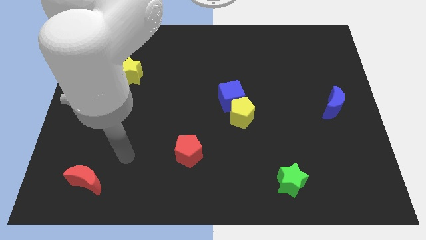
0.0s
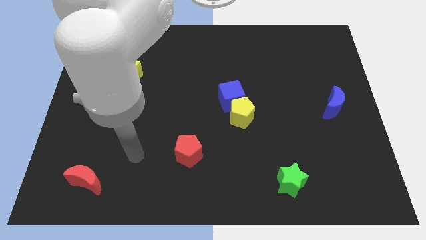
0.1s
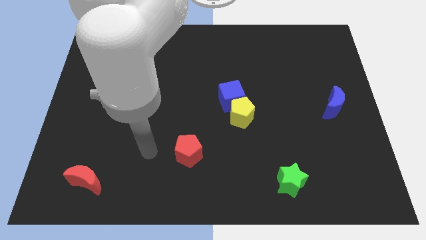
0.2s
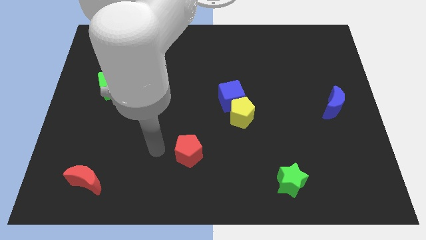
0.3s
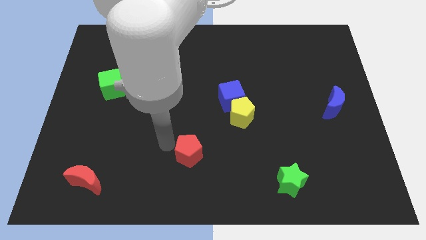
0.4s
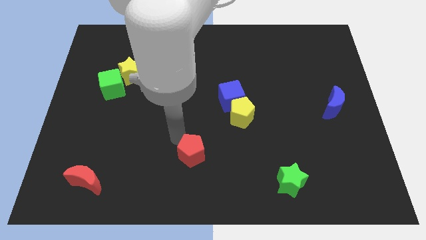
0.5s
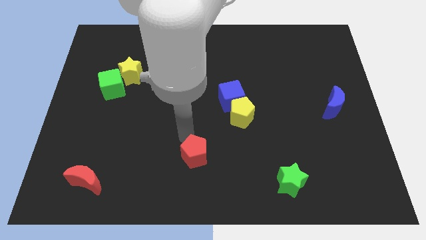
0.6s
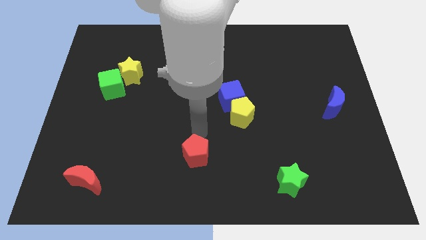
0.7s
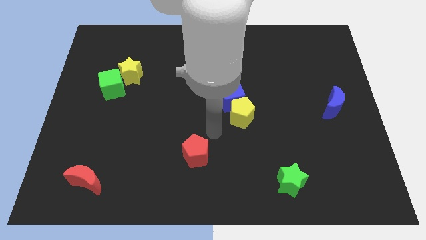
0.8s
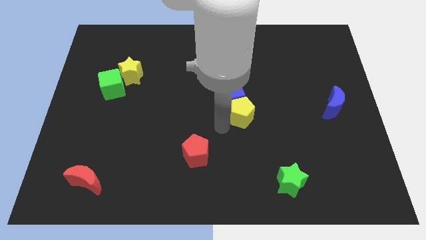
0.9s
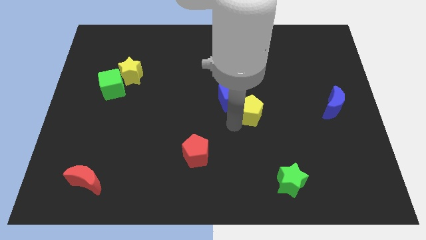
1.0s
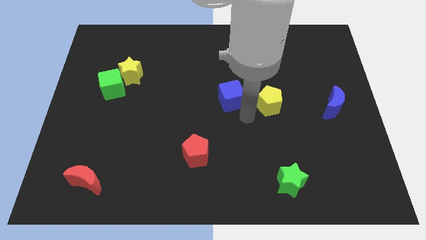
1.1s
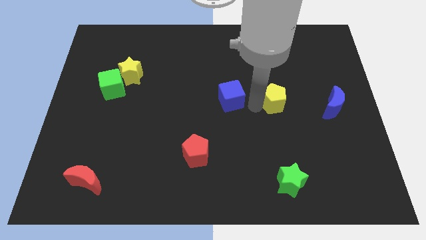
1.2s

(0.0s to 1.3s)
separate the blue cube from the yellow pentagon

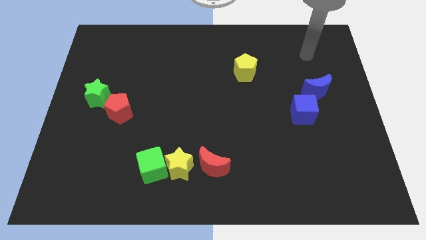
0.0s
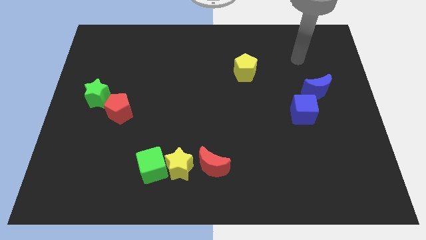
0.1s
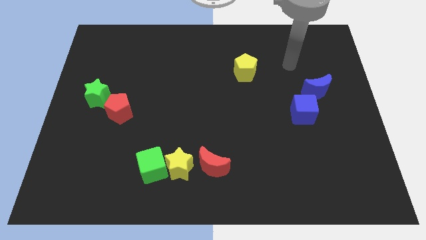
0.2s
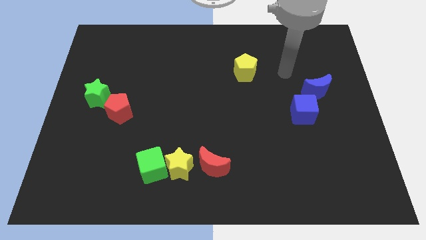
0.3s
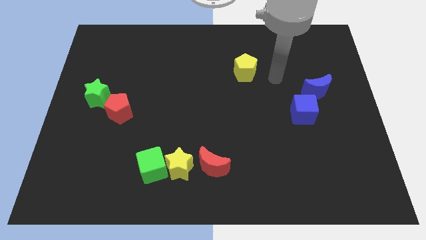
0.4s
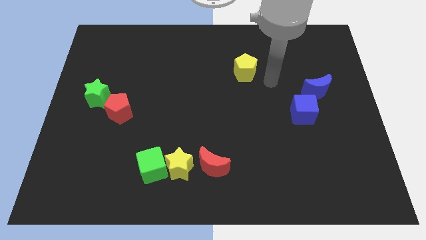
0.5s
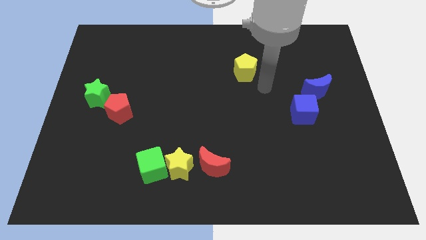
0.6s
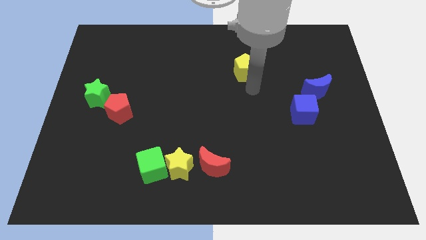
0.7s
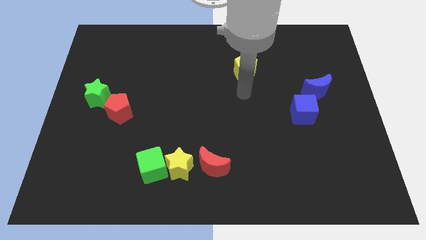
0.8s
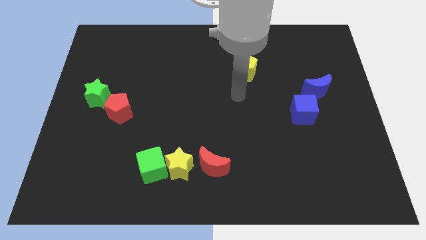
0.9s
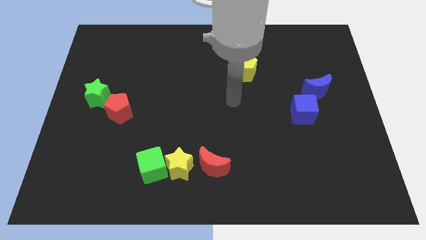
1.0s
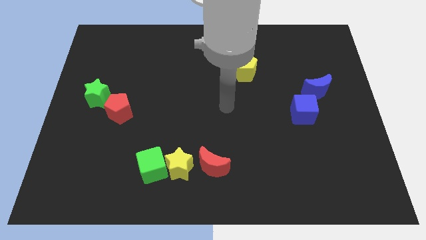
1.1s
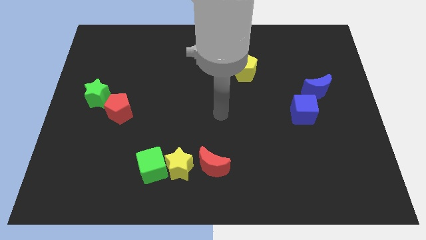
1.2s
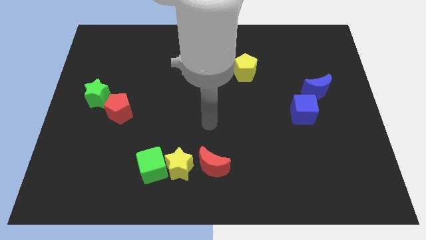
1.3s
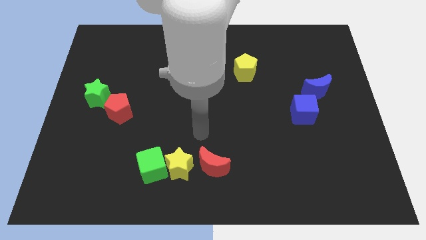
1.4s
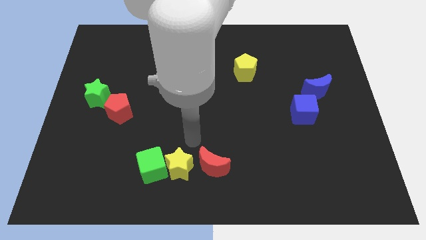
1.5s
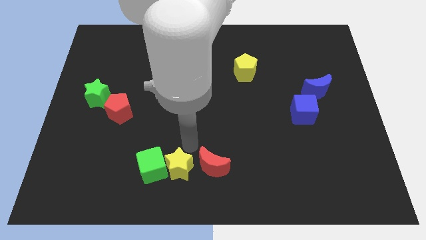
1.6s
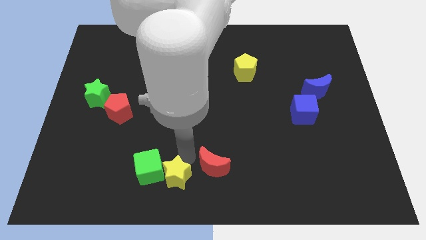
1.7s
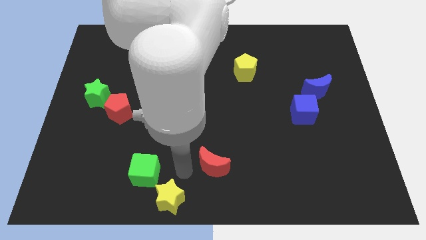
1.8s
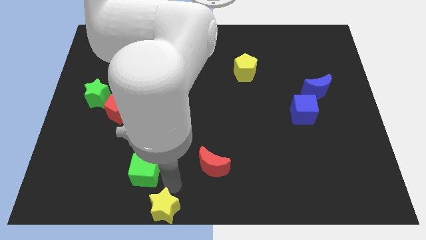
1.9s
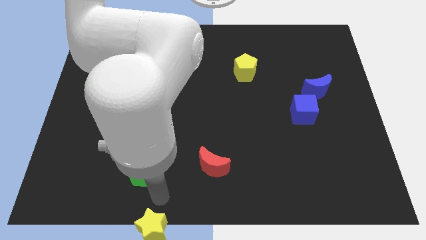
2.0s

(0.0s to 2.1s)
separate the green cube from the yellow star

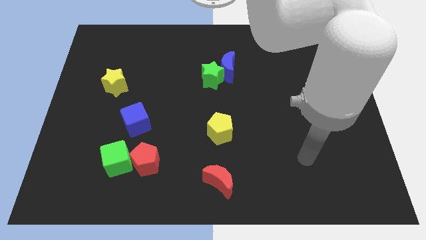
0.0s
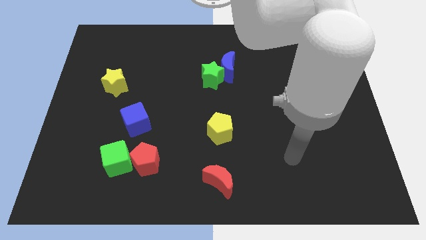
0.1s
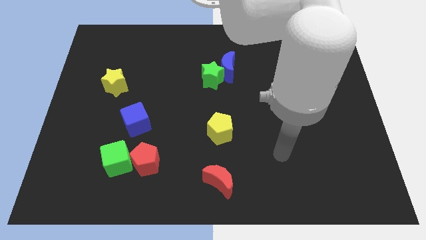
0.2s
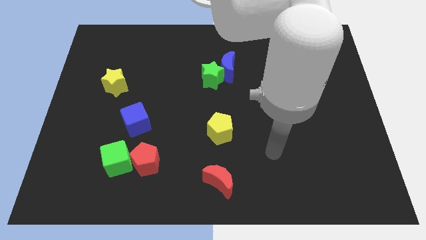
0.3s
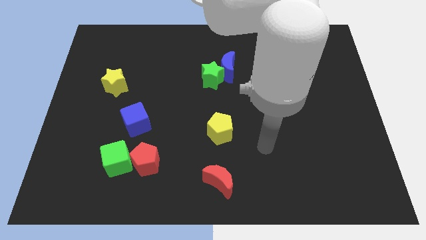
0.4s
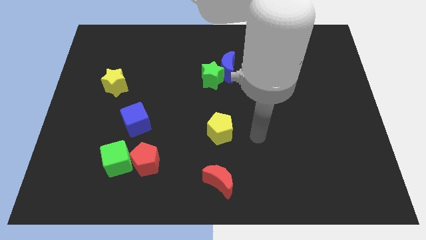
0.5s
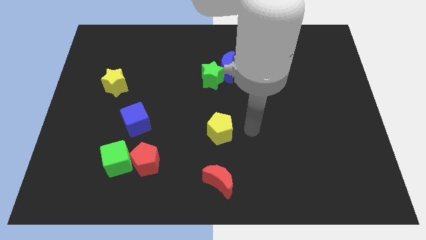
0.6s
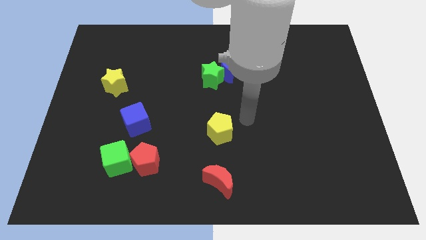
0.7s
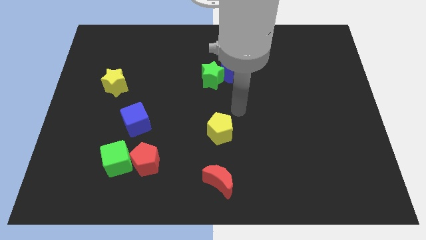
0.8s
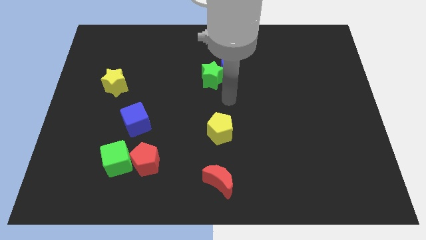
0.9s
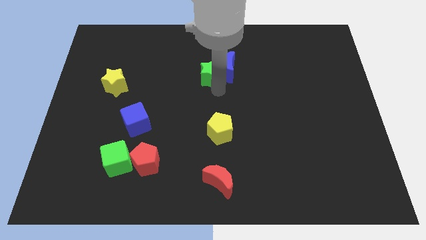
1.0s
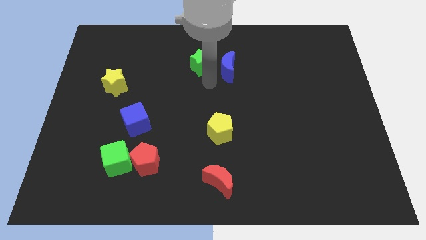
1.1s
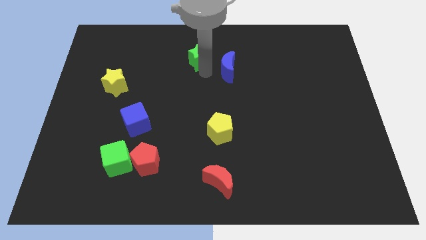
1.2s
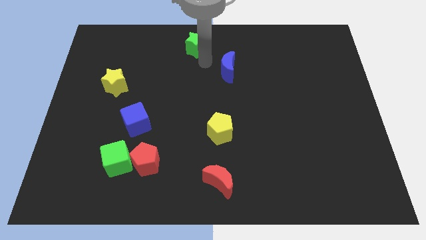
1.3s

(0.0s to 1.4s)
move the blue moon away from the green star

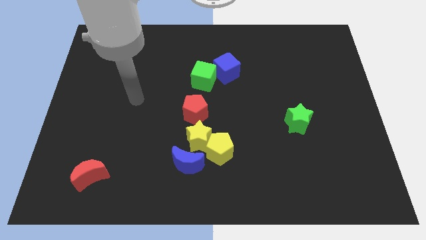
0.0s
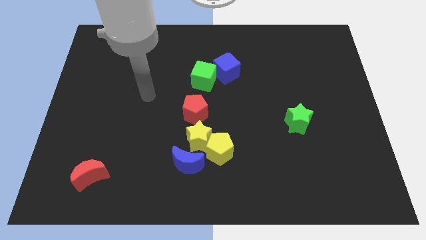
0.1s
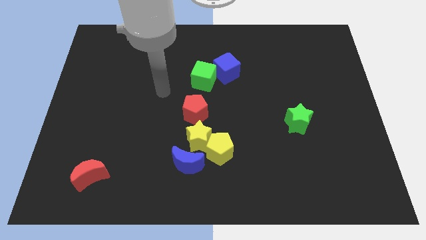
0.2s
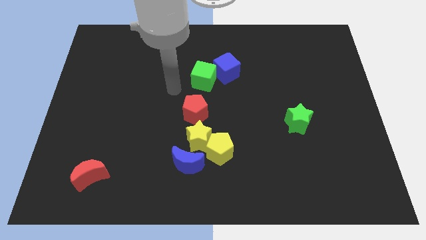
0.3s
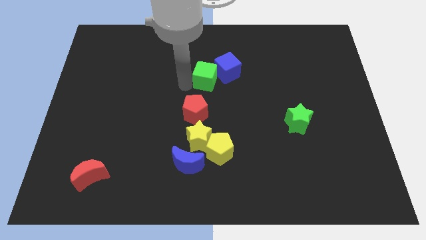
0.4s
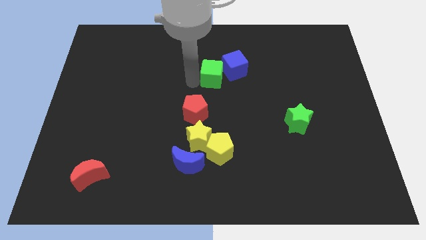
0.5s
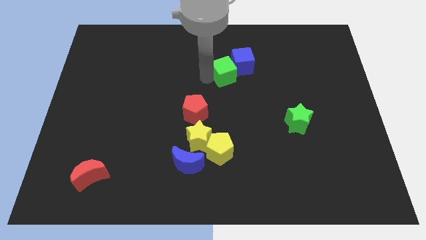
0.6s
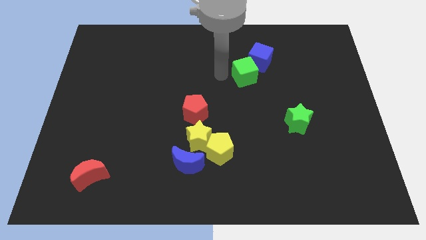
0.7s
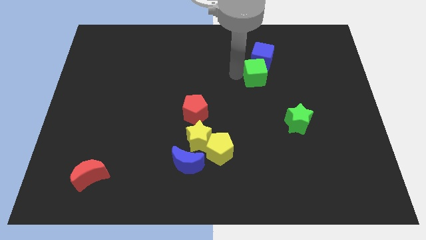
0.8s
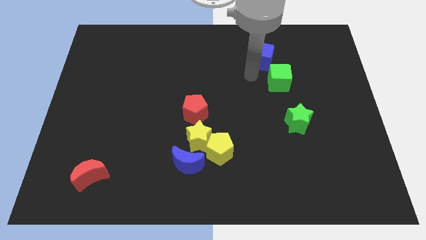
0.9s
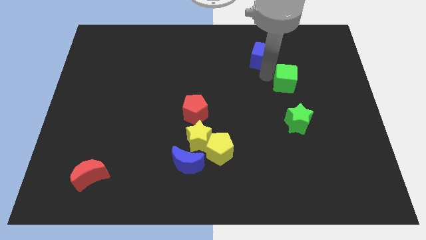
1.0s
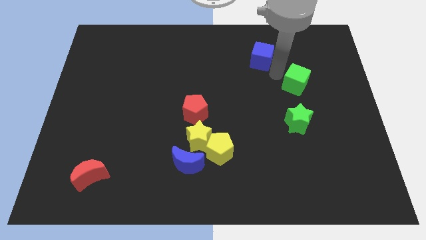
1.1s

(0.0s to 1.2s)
pull the blue cube apart from the green cube

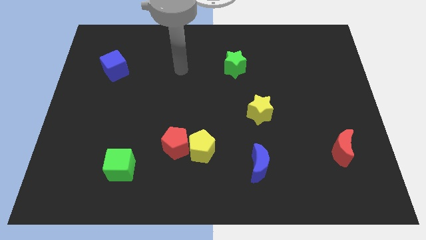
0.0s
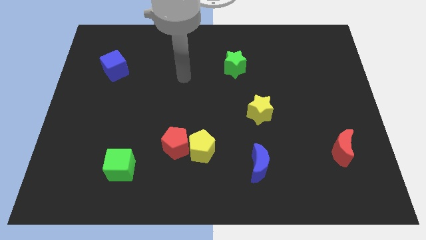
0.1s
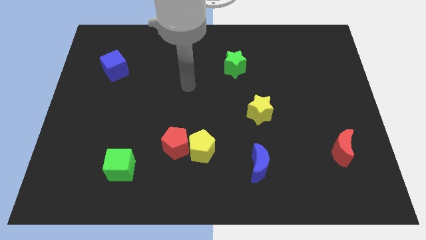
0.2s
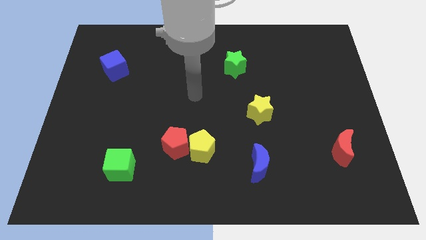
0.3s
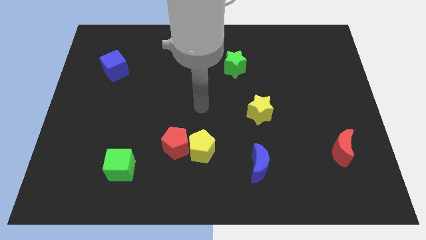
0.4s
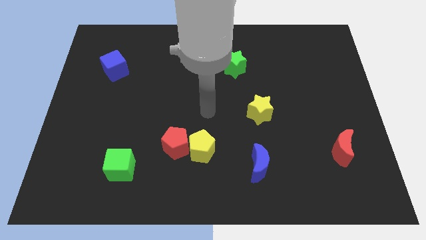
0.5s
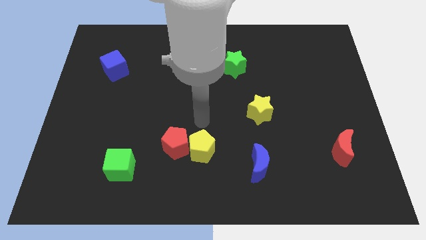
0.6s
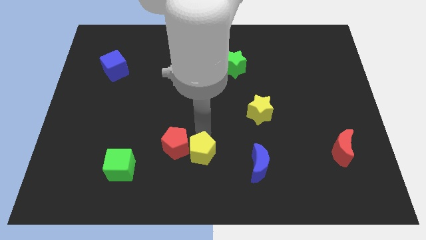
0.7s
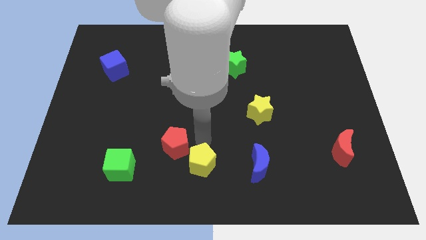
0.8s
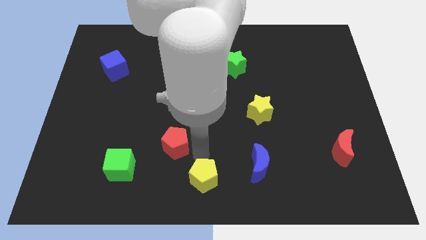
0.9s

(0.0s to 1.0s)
separate the red pentagon from the yellow pentagon

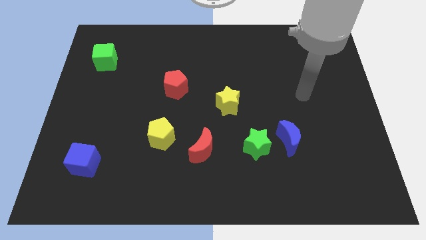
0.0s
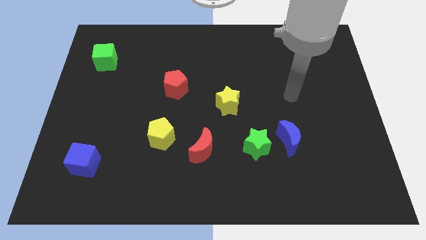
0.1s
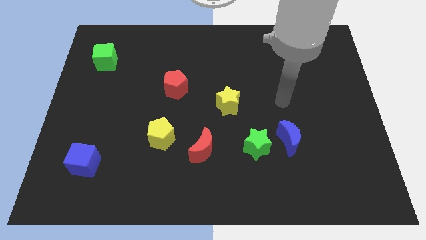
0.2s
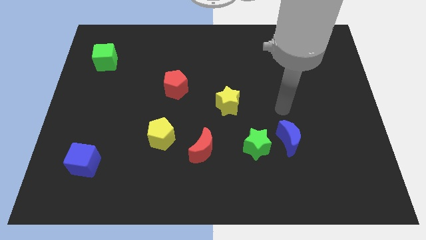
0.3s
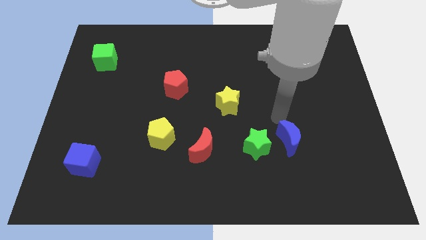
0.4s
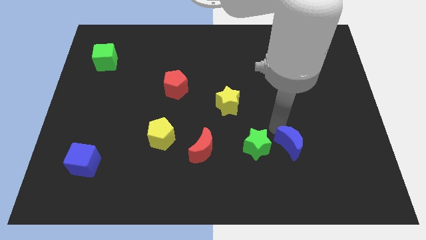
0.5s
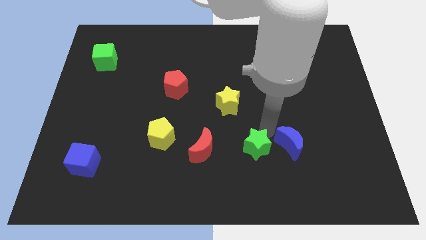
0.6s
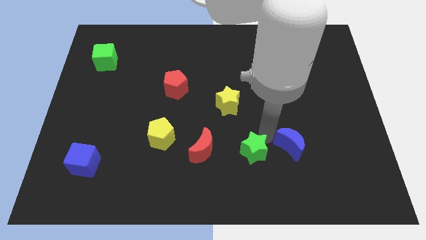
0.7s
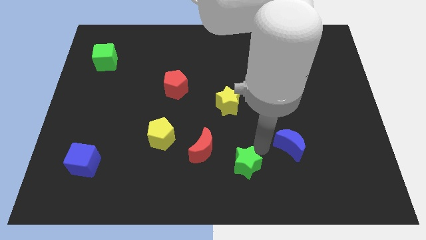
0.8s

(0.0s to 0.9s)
pull the blue moon apart from the green star

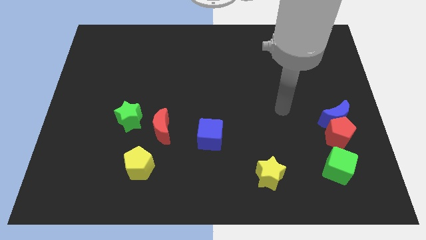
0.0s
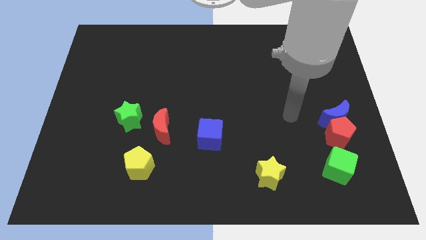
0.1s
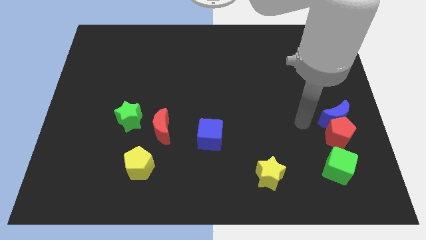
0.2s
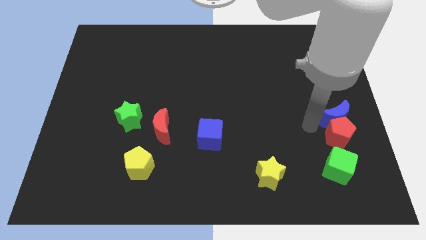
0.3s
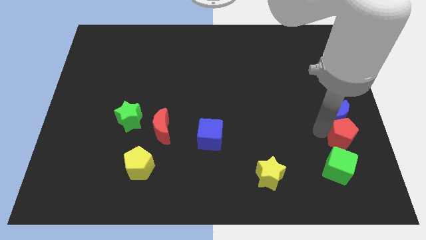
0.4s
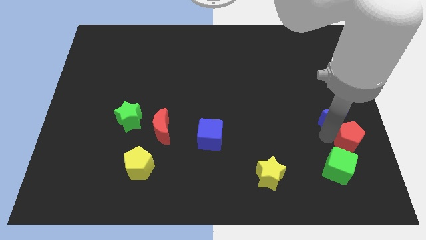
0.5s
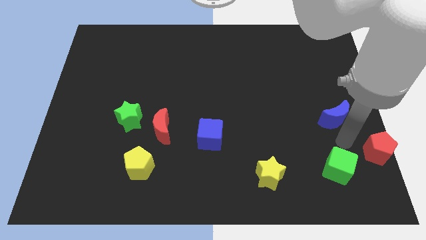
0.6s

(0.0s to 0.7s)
move the blue moon away from the red pentagon

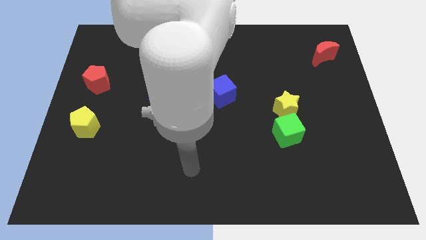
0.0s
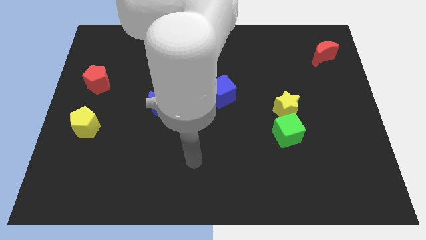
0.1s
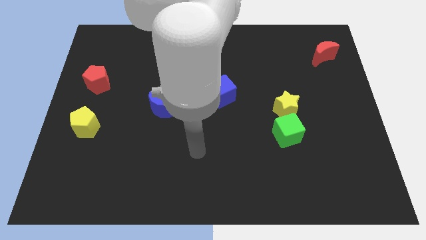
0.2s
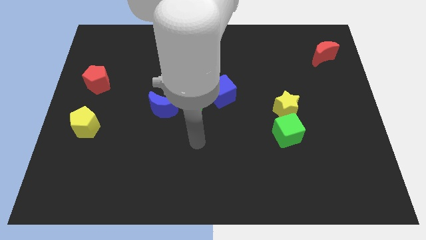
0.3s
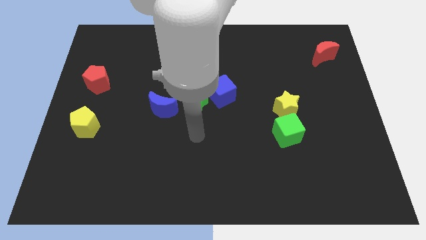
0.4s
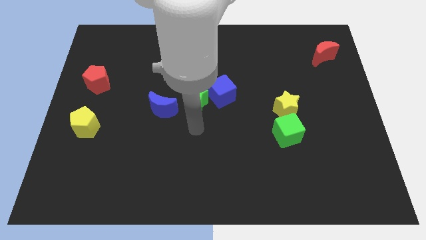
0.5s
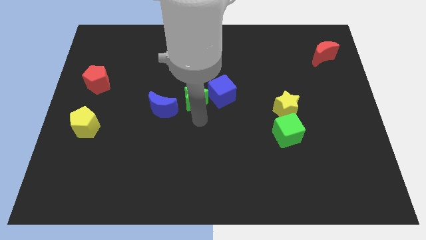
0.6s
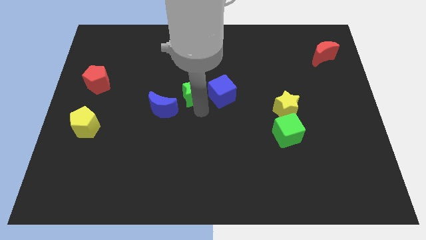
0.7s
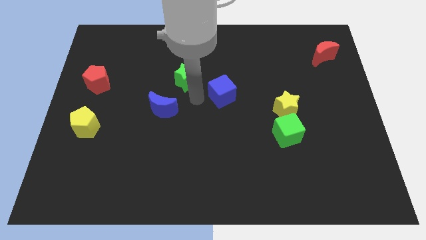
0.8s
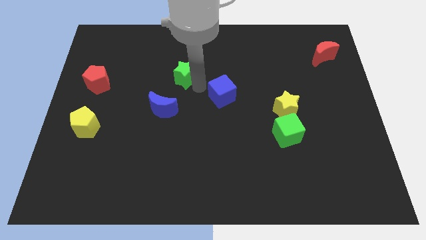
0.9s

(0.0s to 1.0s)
move the blue cube away from the green star
